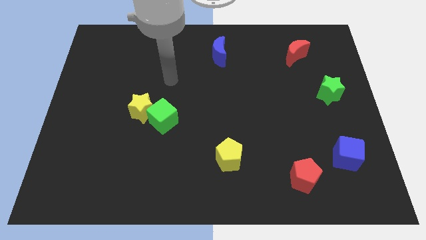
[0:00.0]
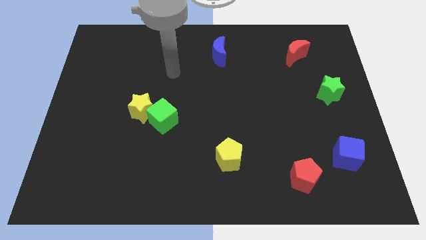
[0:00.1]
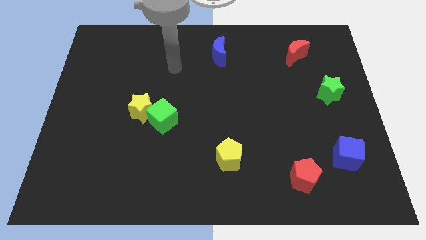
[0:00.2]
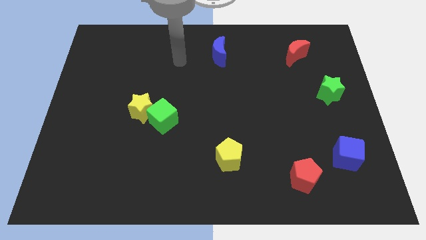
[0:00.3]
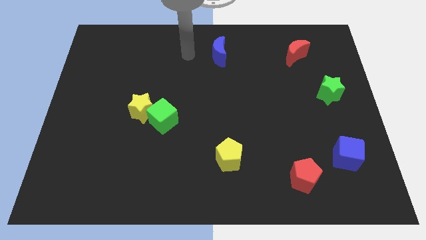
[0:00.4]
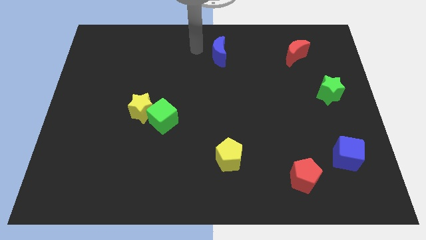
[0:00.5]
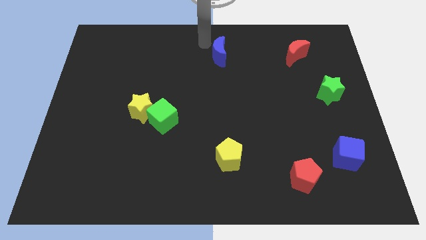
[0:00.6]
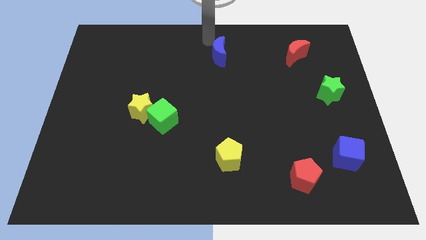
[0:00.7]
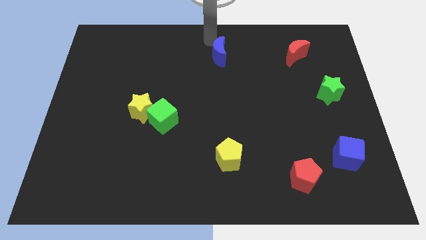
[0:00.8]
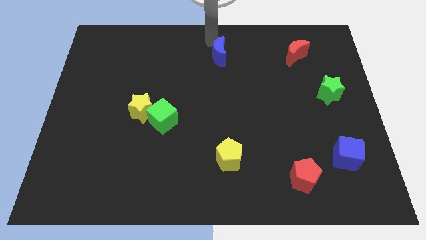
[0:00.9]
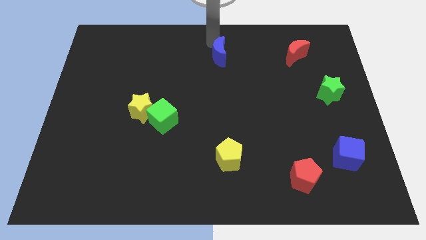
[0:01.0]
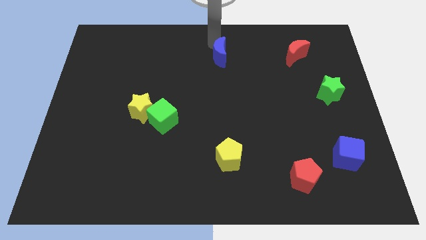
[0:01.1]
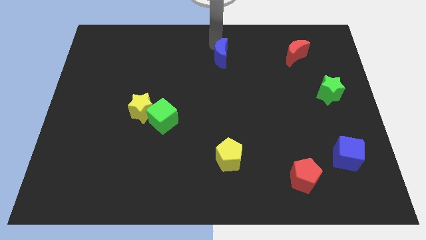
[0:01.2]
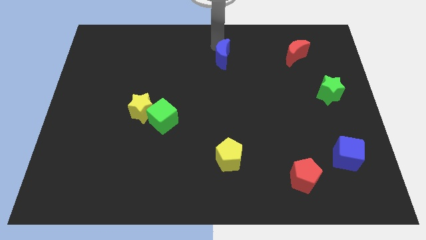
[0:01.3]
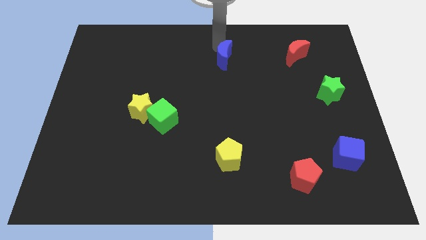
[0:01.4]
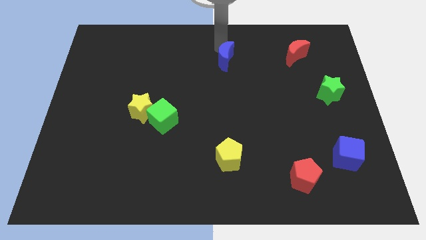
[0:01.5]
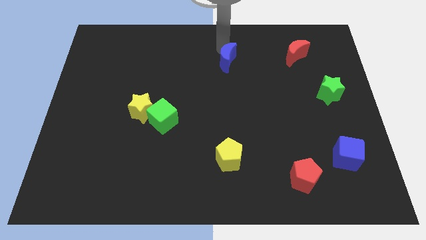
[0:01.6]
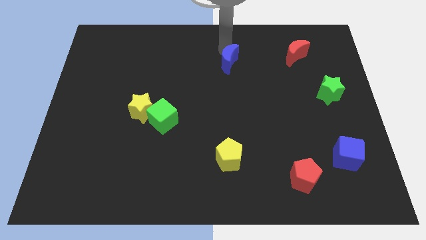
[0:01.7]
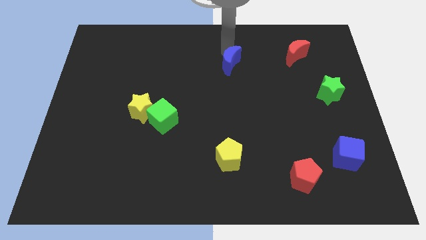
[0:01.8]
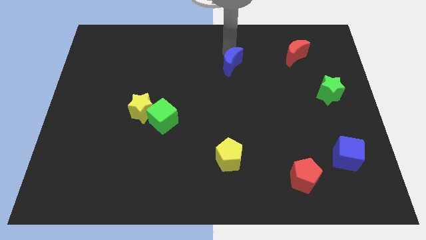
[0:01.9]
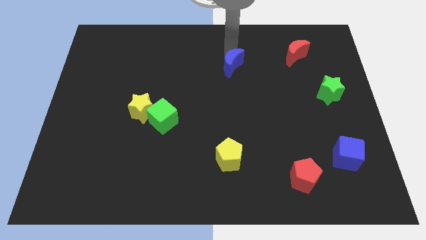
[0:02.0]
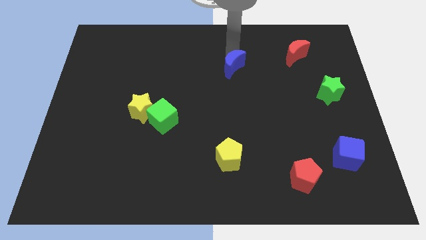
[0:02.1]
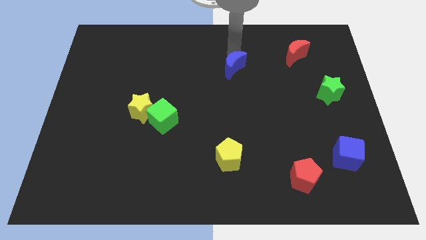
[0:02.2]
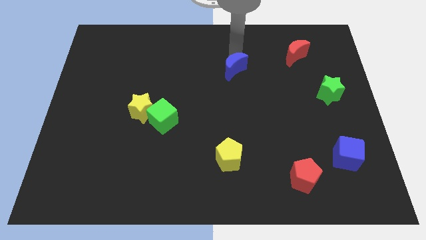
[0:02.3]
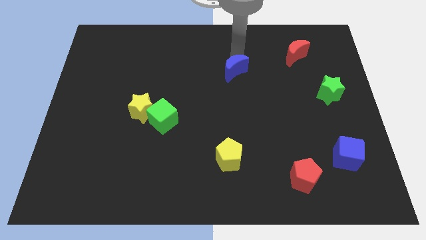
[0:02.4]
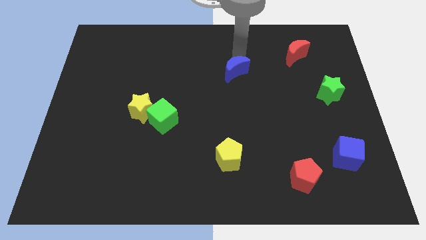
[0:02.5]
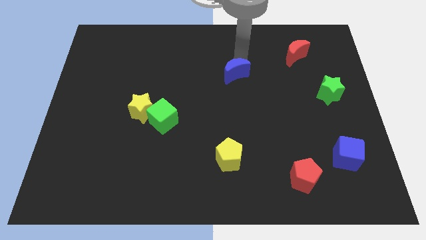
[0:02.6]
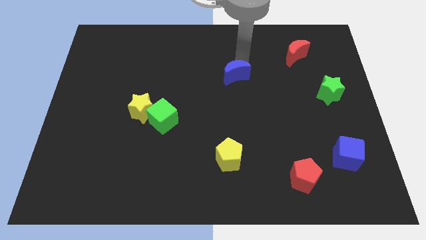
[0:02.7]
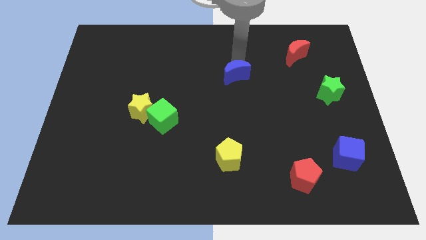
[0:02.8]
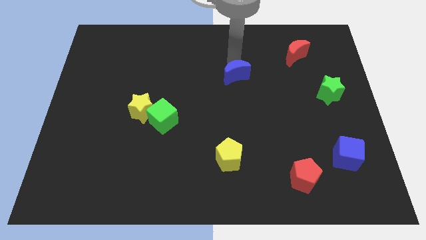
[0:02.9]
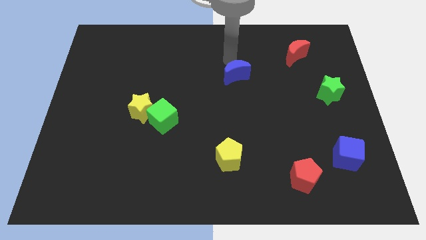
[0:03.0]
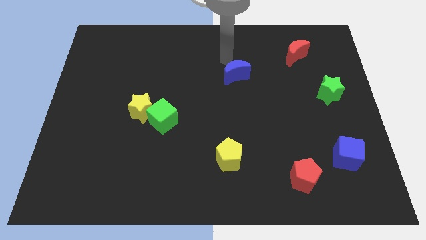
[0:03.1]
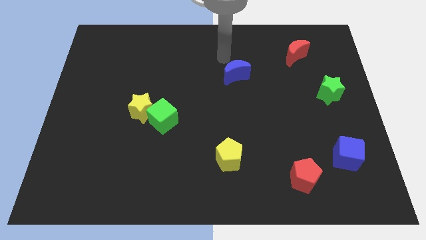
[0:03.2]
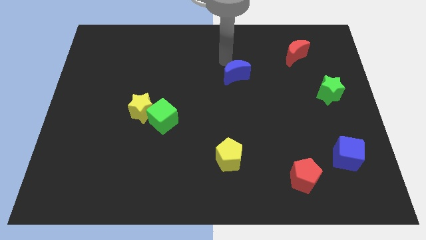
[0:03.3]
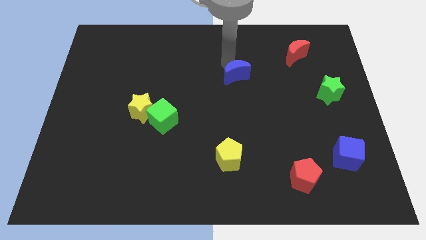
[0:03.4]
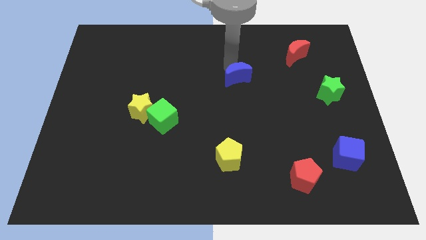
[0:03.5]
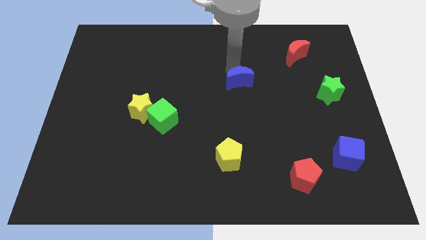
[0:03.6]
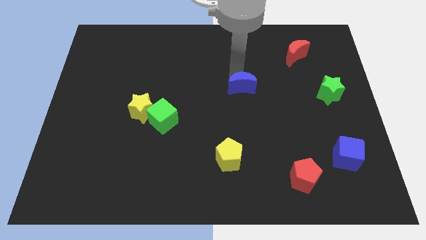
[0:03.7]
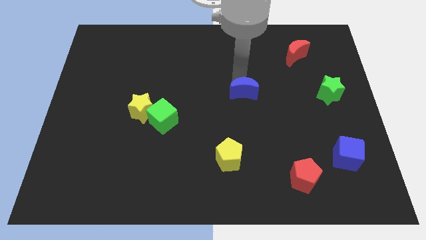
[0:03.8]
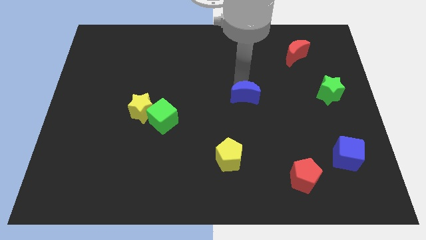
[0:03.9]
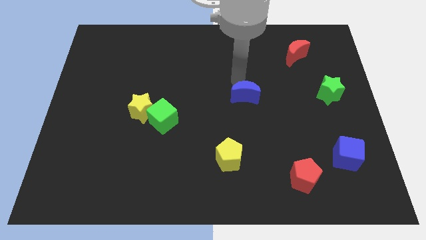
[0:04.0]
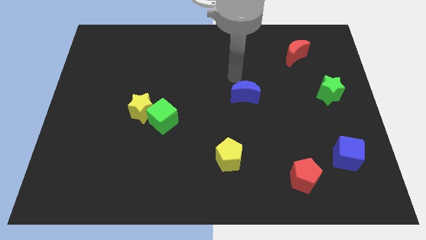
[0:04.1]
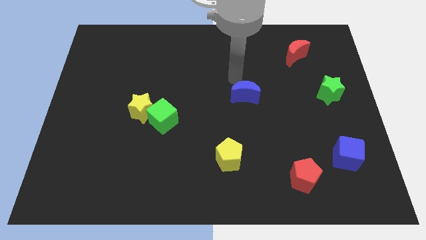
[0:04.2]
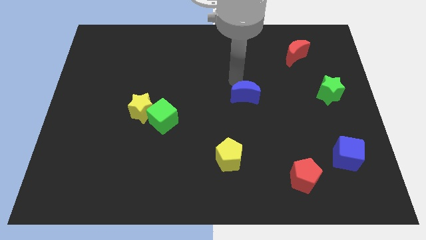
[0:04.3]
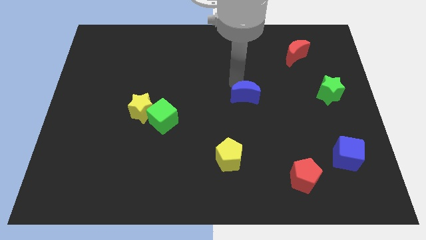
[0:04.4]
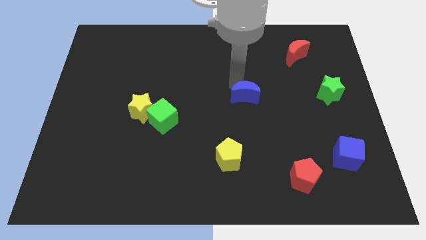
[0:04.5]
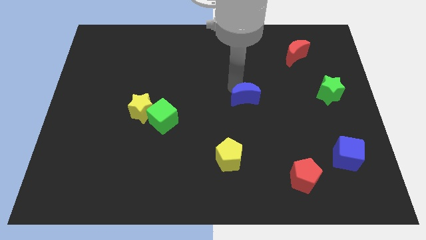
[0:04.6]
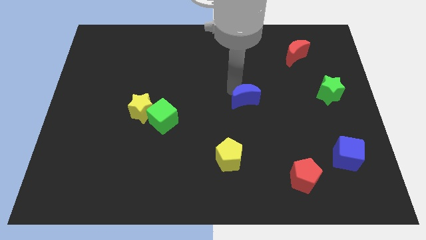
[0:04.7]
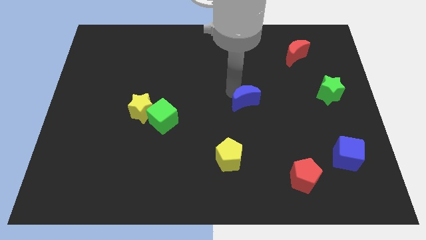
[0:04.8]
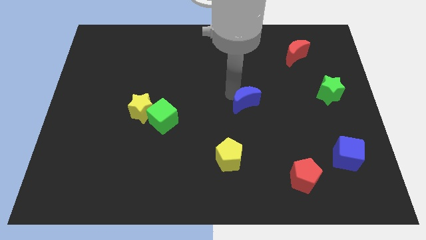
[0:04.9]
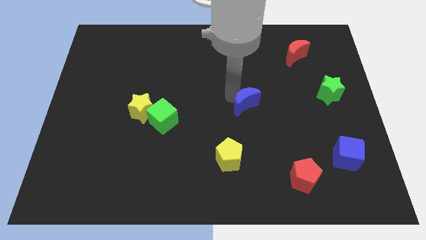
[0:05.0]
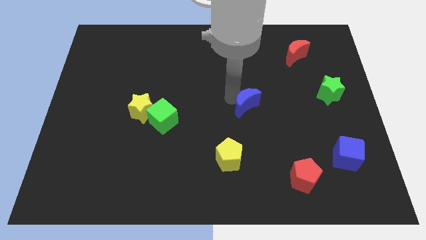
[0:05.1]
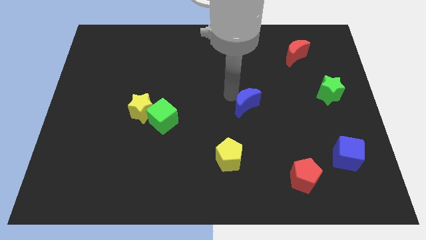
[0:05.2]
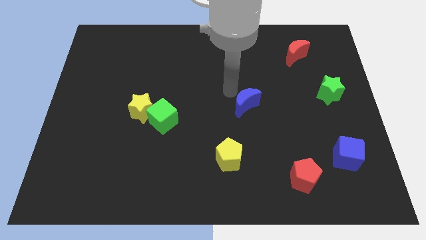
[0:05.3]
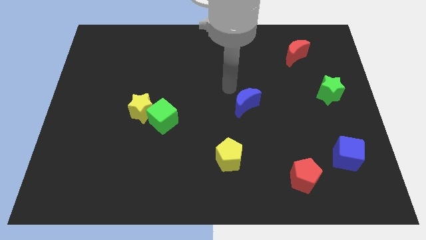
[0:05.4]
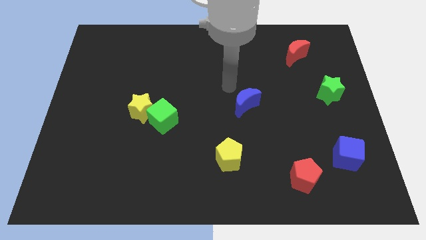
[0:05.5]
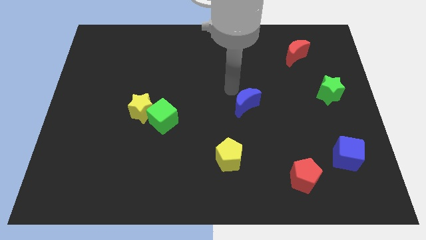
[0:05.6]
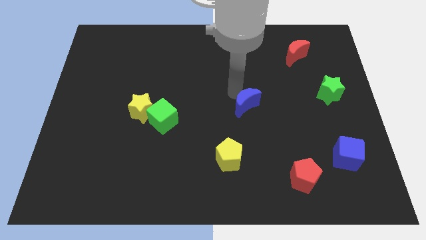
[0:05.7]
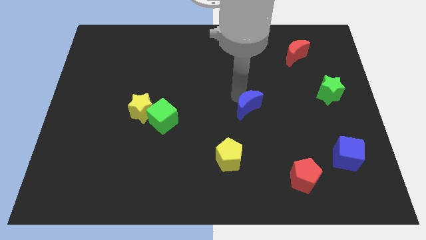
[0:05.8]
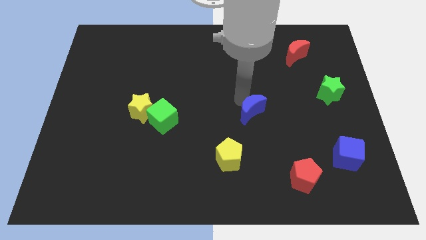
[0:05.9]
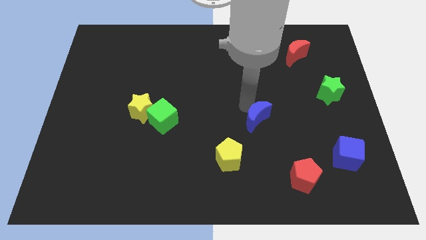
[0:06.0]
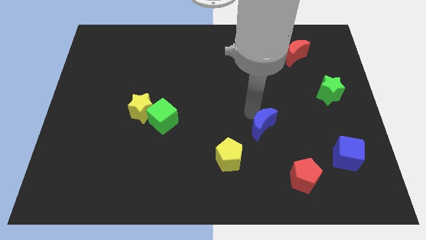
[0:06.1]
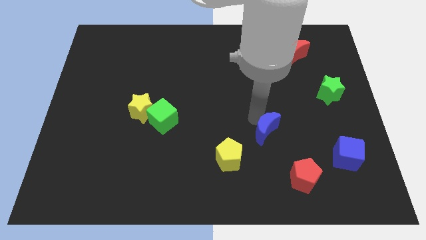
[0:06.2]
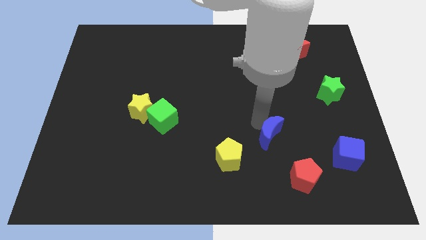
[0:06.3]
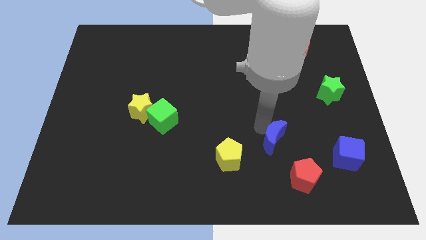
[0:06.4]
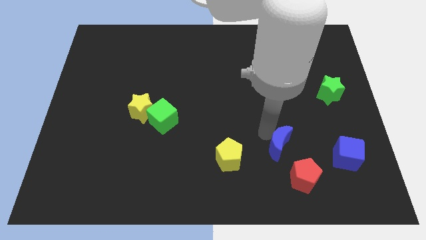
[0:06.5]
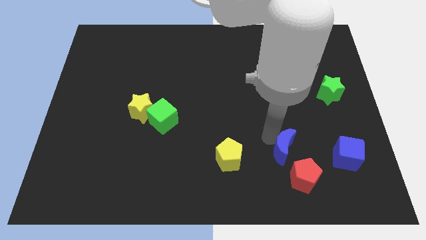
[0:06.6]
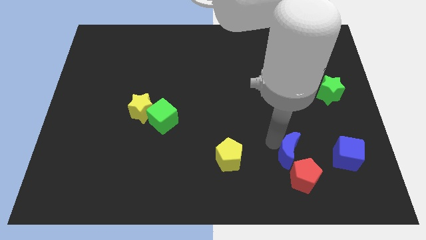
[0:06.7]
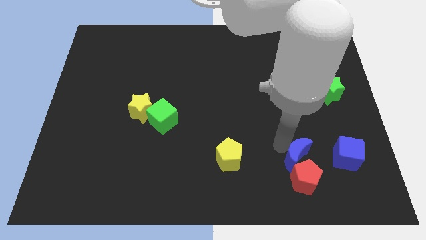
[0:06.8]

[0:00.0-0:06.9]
slide the blue moon next to the red pentagon

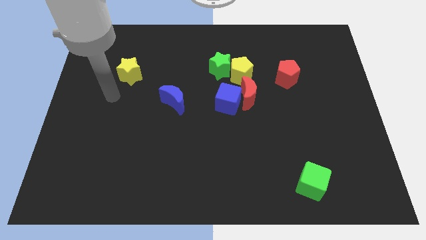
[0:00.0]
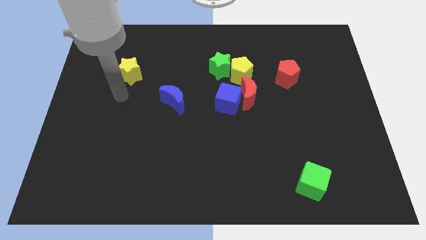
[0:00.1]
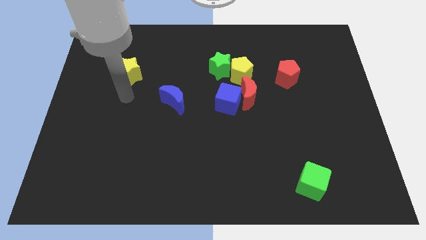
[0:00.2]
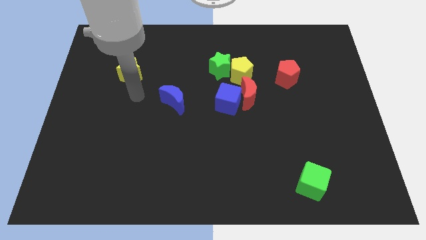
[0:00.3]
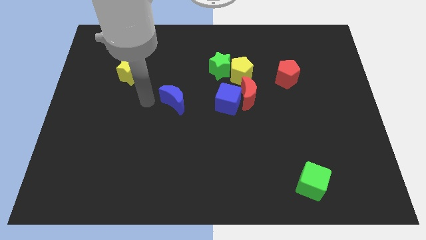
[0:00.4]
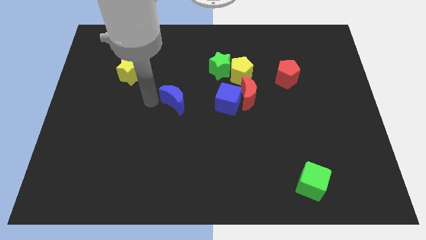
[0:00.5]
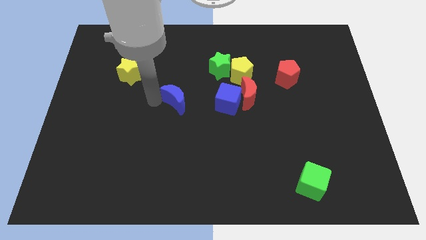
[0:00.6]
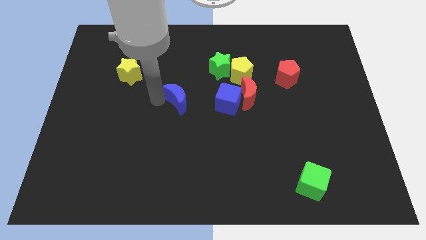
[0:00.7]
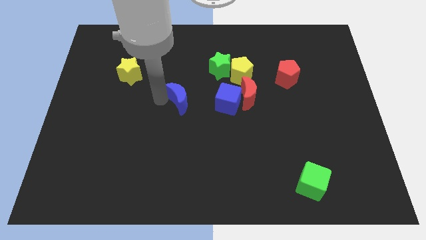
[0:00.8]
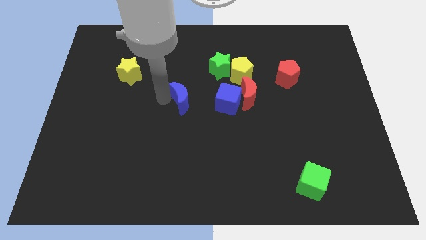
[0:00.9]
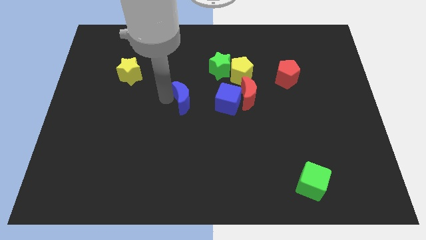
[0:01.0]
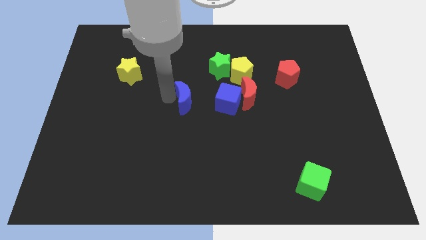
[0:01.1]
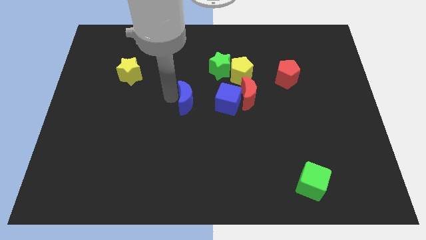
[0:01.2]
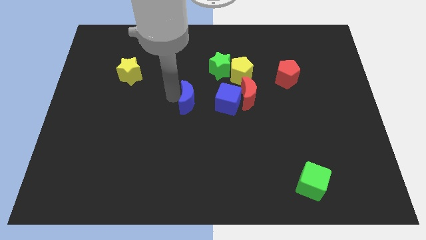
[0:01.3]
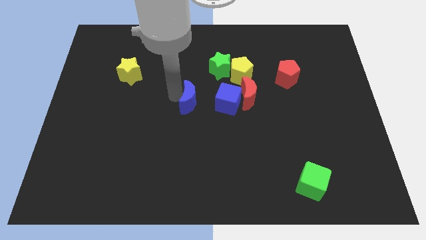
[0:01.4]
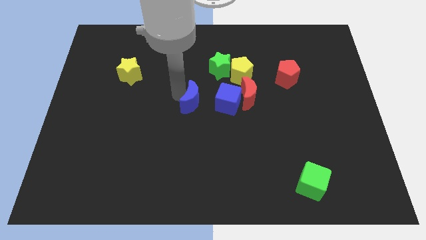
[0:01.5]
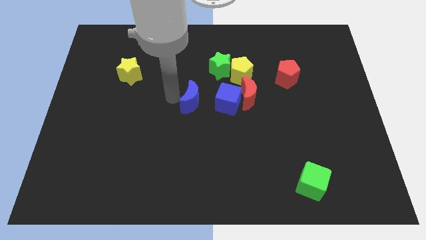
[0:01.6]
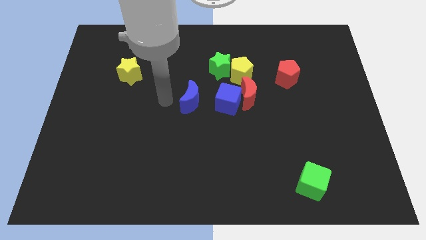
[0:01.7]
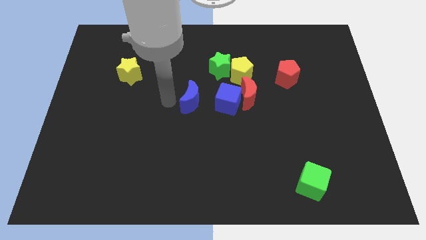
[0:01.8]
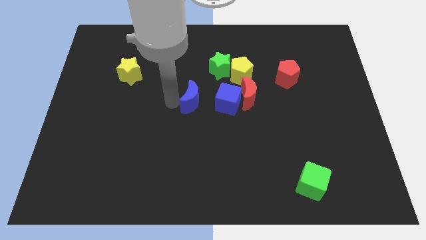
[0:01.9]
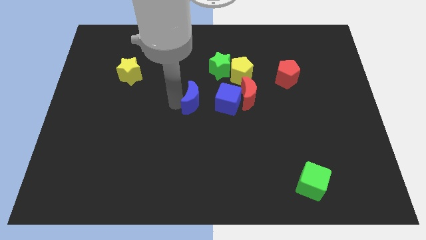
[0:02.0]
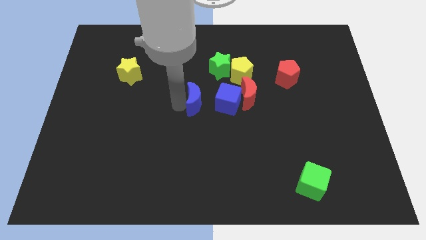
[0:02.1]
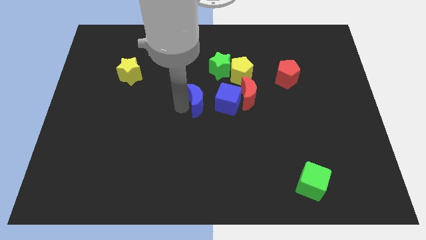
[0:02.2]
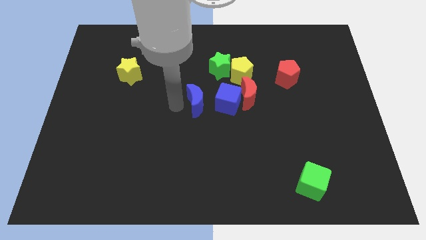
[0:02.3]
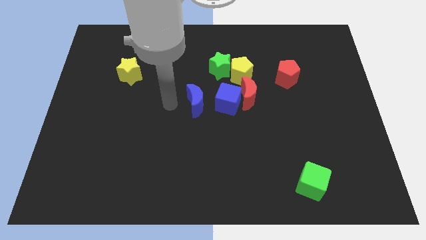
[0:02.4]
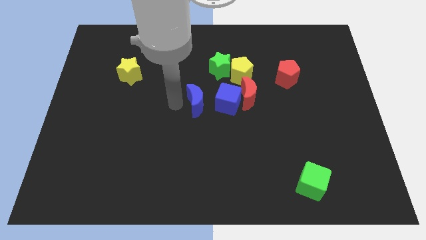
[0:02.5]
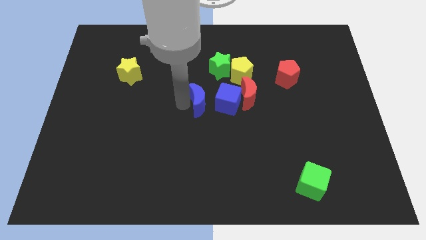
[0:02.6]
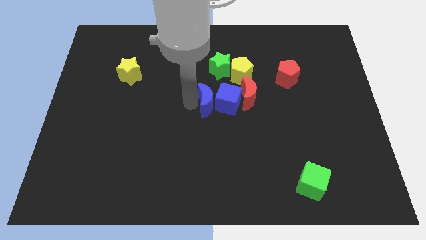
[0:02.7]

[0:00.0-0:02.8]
slide the blue moon to the blue cube
